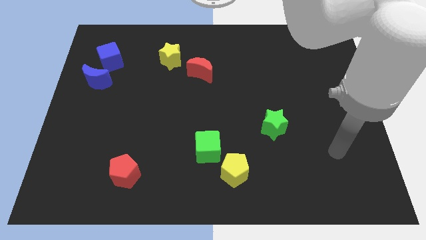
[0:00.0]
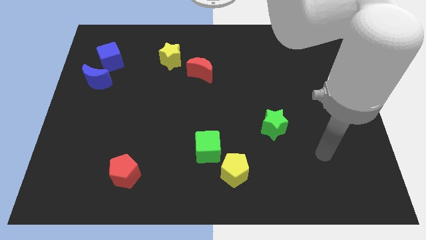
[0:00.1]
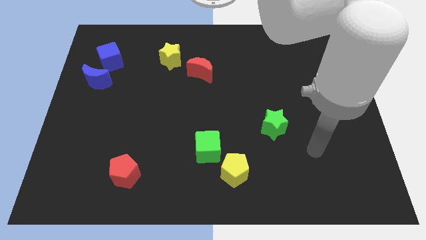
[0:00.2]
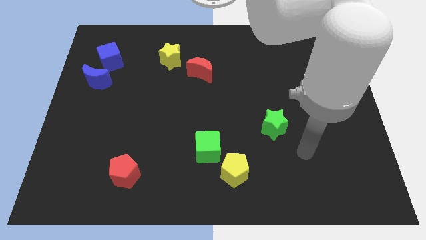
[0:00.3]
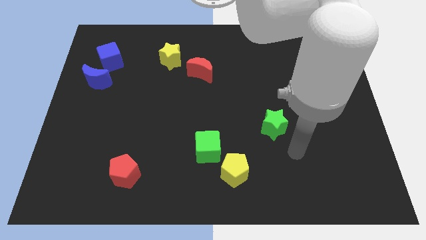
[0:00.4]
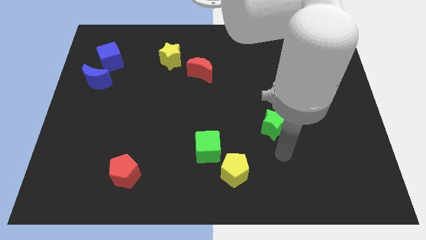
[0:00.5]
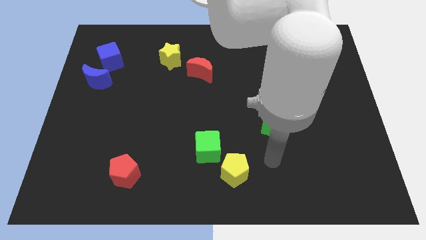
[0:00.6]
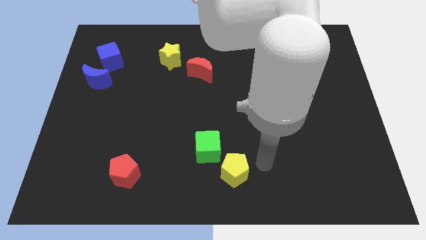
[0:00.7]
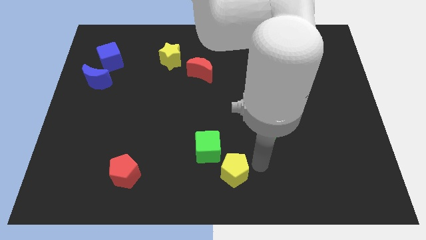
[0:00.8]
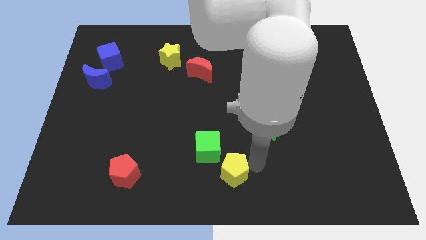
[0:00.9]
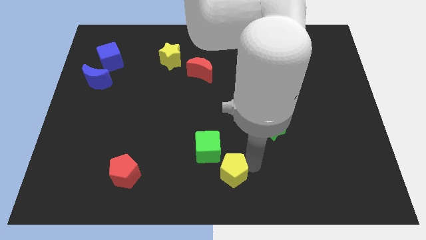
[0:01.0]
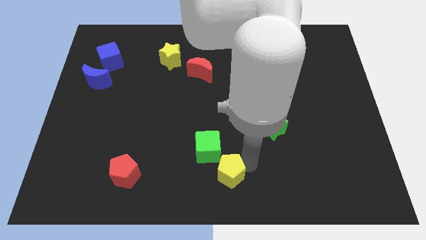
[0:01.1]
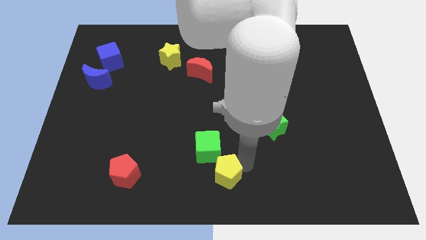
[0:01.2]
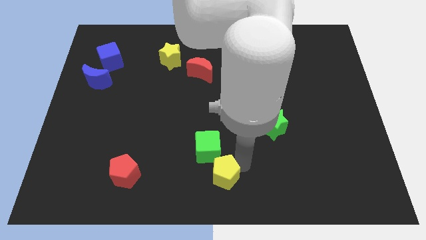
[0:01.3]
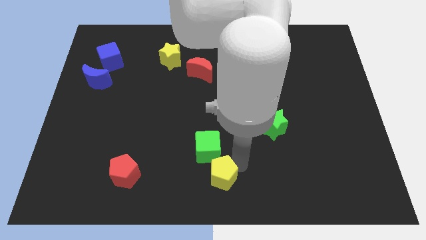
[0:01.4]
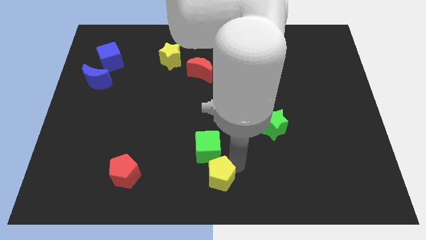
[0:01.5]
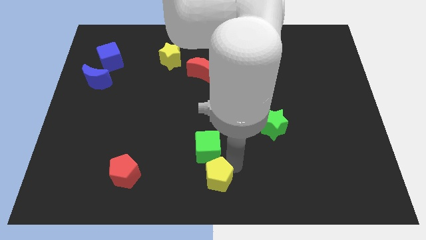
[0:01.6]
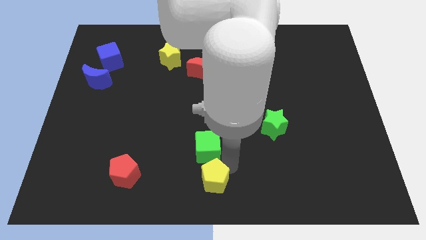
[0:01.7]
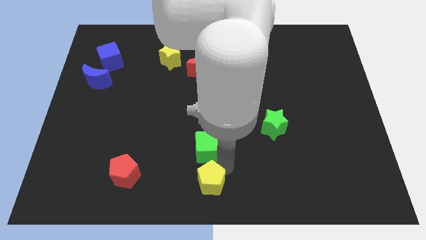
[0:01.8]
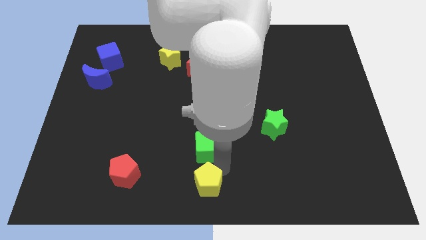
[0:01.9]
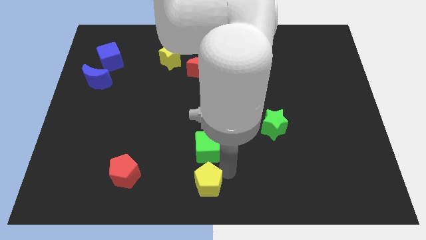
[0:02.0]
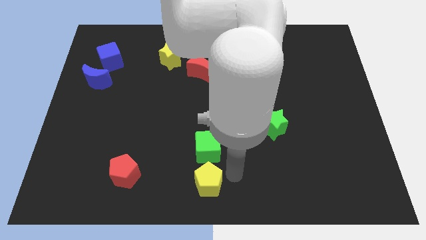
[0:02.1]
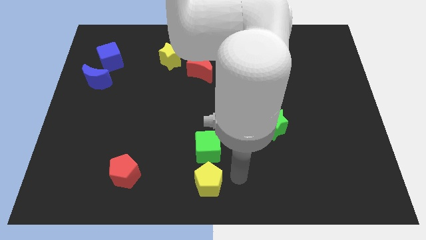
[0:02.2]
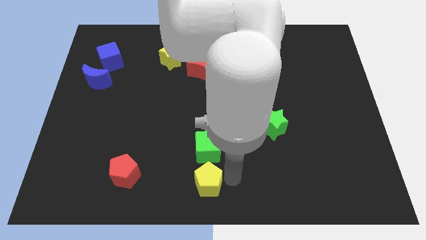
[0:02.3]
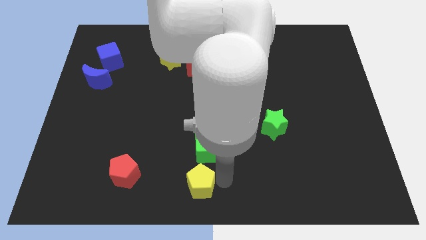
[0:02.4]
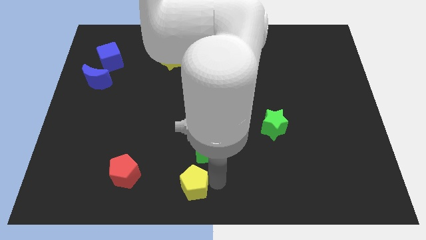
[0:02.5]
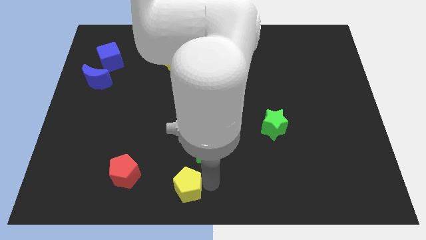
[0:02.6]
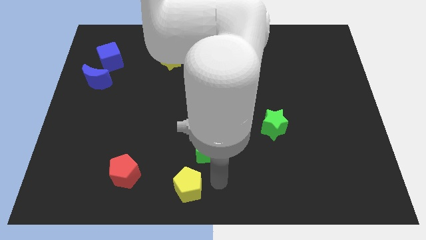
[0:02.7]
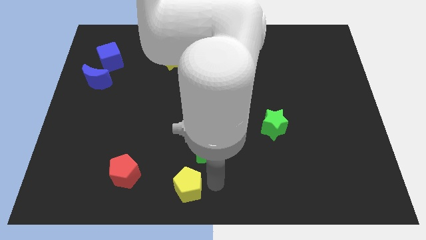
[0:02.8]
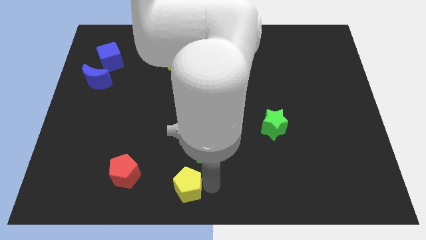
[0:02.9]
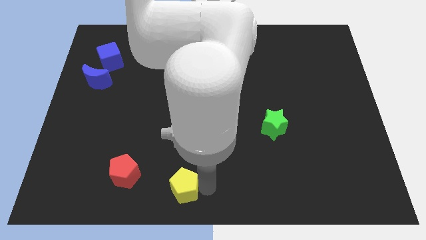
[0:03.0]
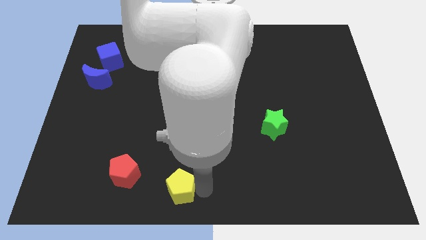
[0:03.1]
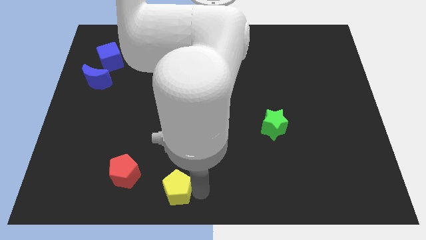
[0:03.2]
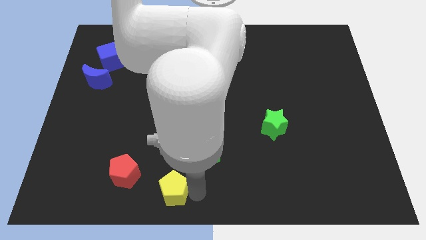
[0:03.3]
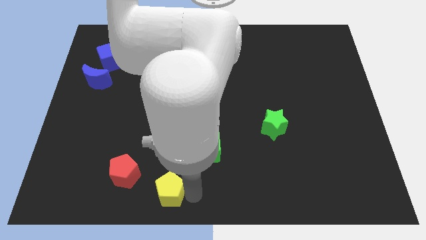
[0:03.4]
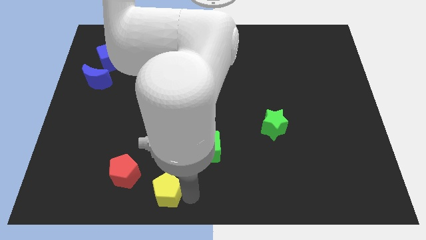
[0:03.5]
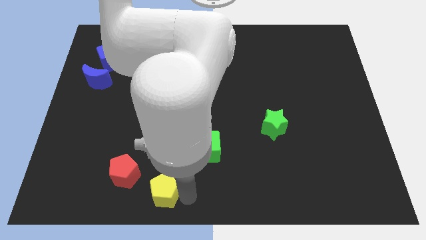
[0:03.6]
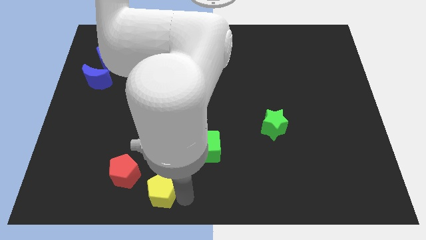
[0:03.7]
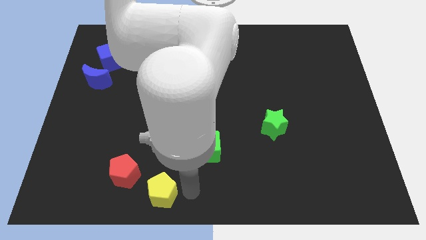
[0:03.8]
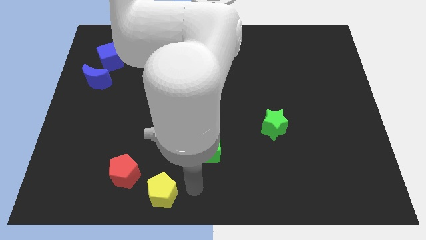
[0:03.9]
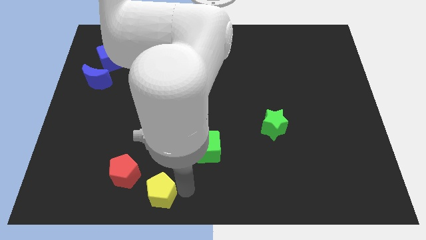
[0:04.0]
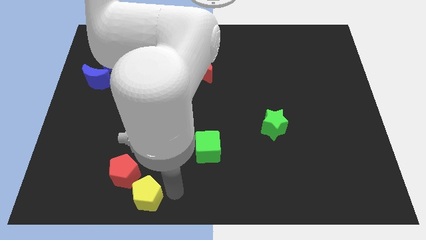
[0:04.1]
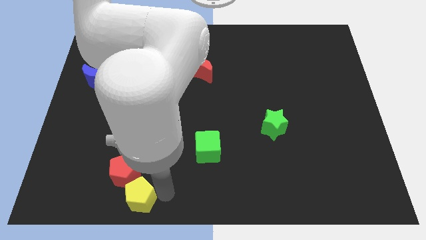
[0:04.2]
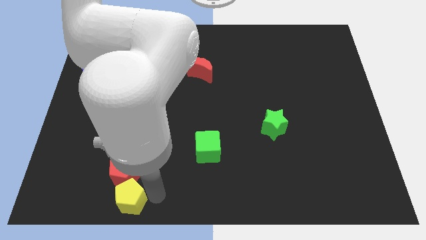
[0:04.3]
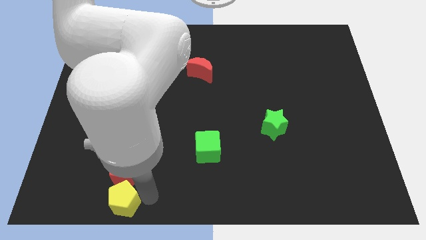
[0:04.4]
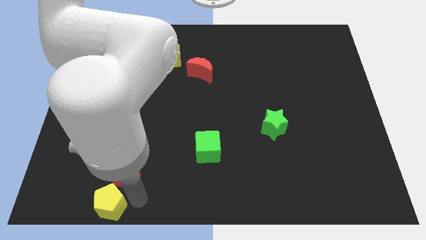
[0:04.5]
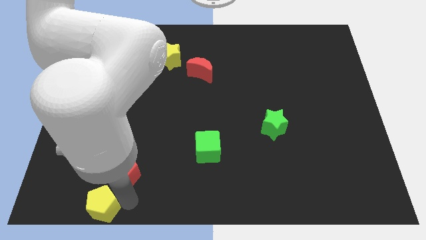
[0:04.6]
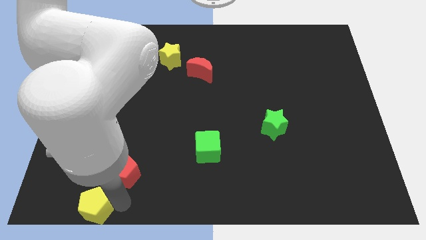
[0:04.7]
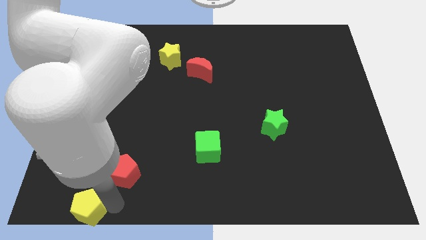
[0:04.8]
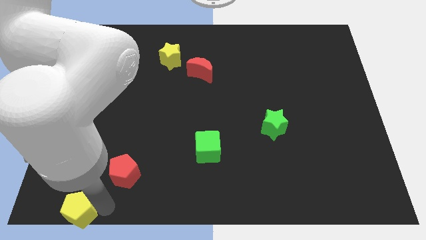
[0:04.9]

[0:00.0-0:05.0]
move the yellow pentagon to the lower left corner

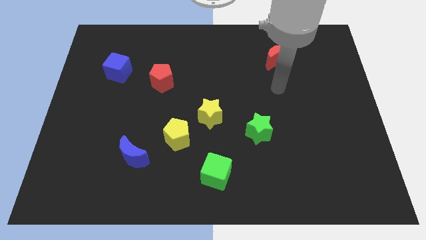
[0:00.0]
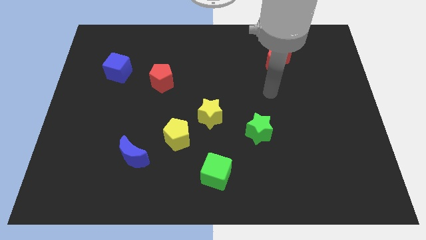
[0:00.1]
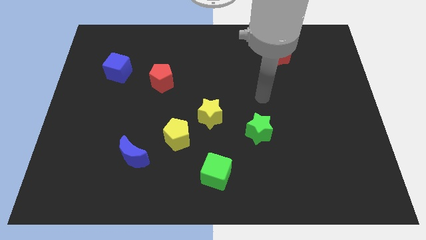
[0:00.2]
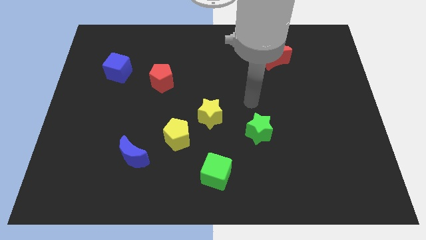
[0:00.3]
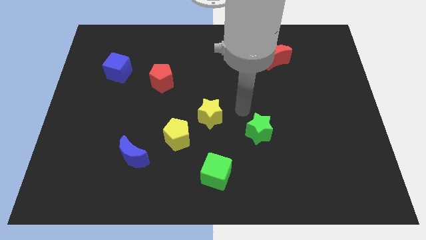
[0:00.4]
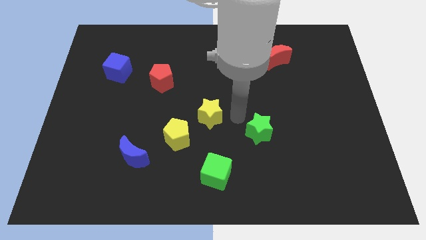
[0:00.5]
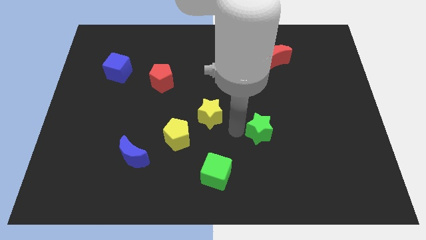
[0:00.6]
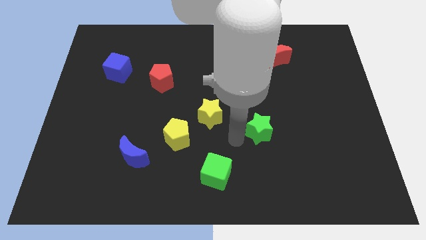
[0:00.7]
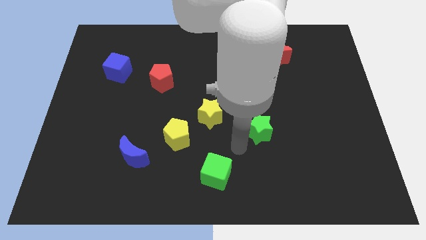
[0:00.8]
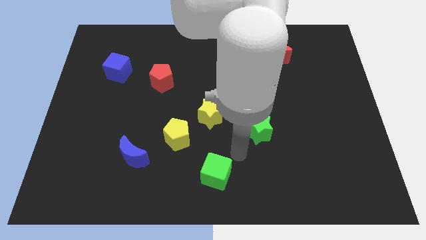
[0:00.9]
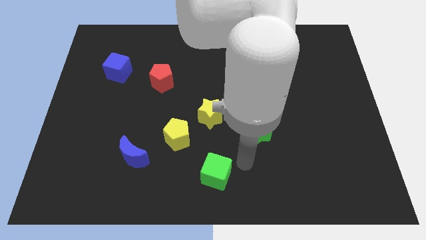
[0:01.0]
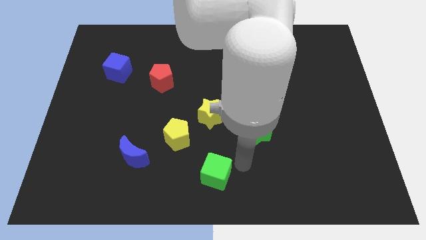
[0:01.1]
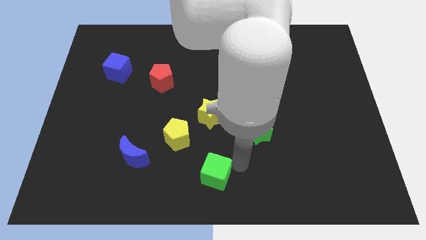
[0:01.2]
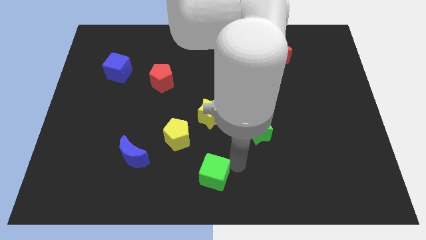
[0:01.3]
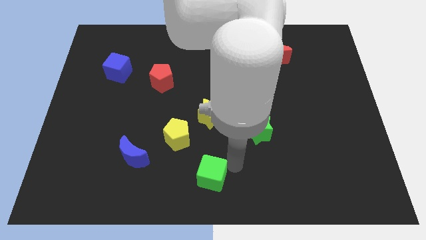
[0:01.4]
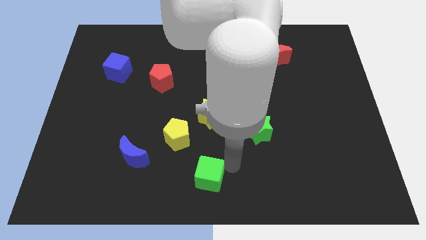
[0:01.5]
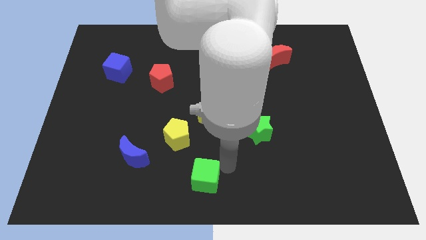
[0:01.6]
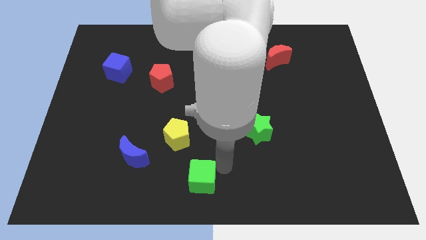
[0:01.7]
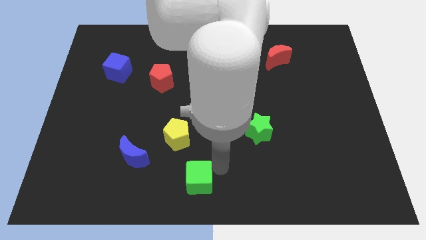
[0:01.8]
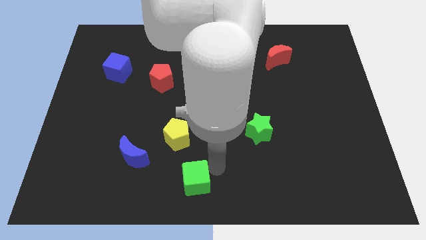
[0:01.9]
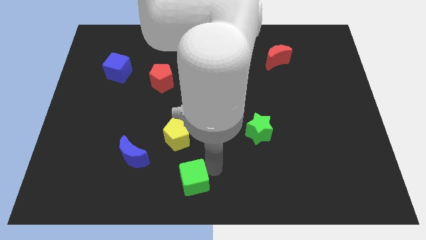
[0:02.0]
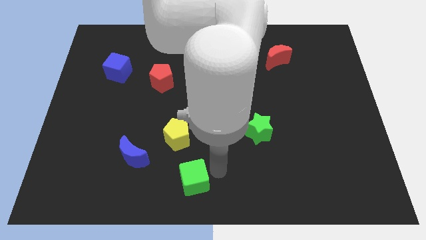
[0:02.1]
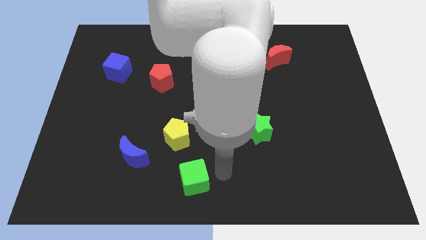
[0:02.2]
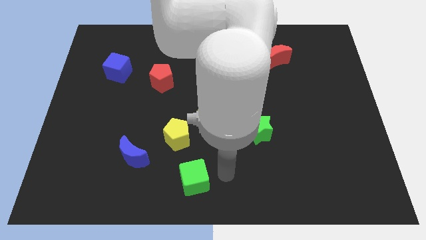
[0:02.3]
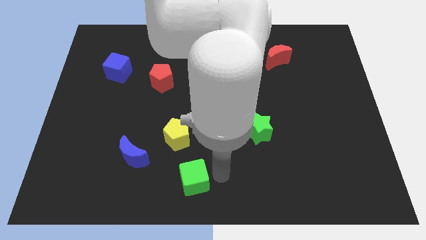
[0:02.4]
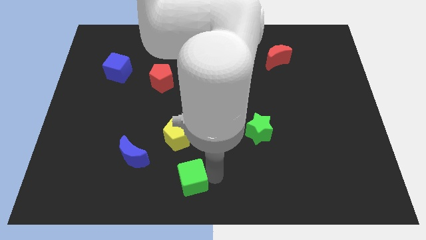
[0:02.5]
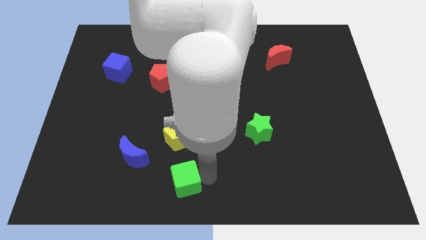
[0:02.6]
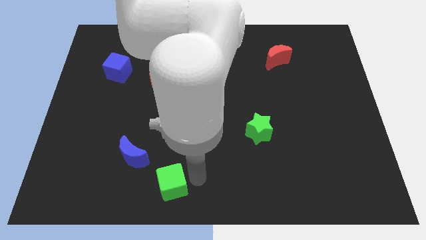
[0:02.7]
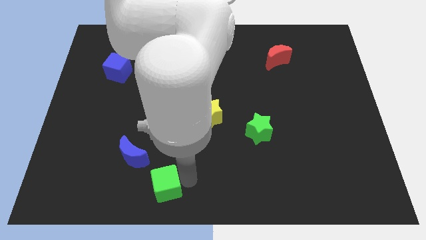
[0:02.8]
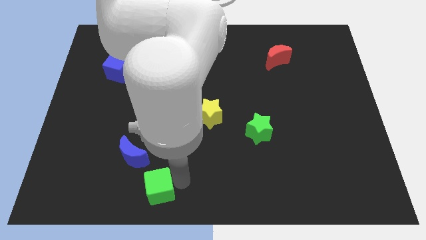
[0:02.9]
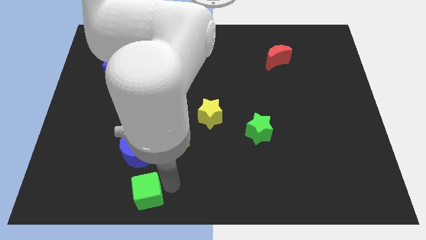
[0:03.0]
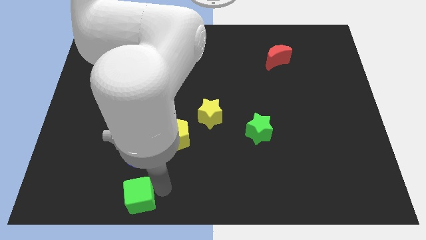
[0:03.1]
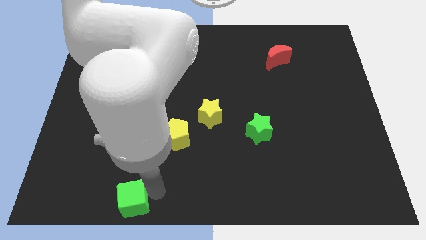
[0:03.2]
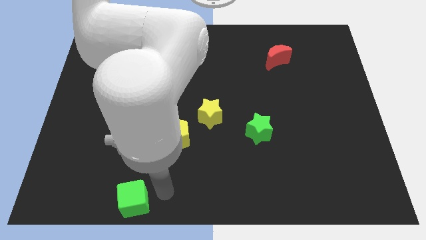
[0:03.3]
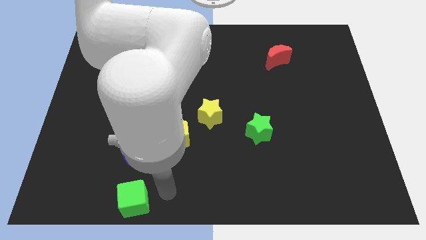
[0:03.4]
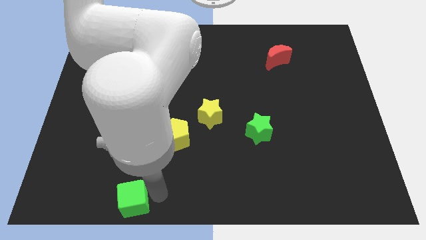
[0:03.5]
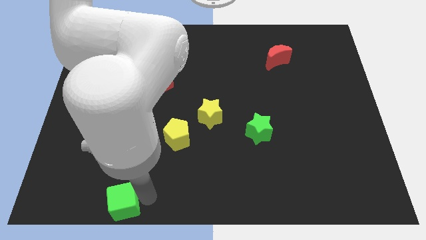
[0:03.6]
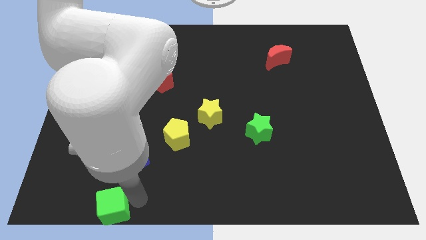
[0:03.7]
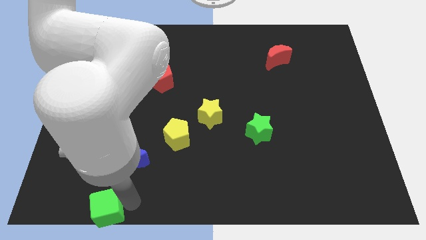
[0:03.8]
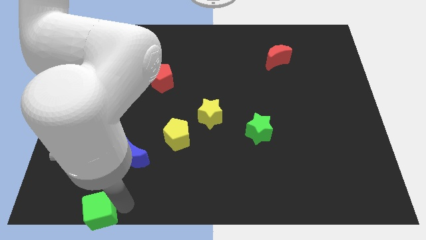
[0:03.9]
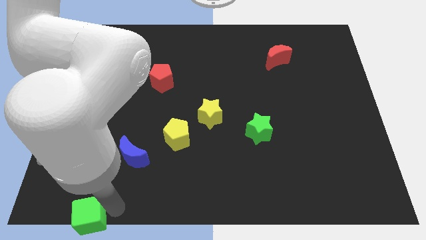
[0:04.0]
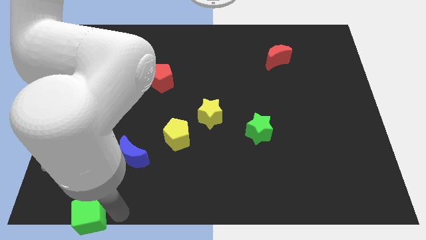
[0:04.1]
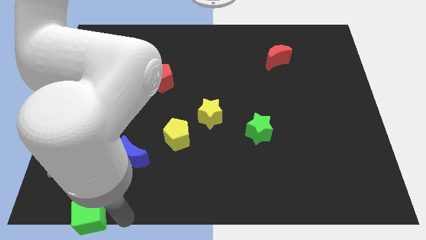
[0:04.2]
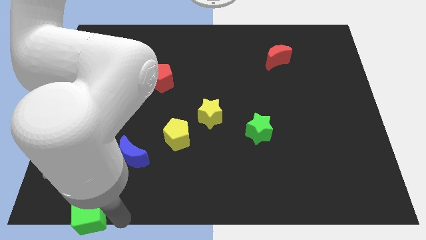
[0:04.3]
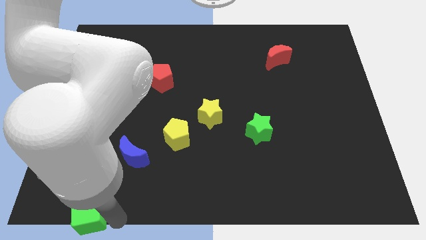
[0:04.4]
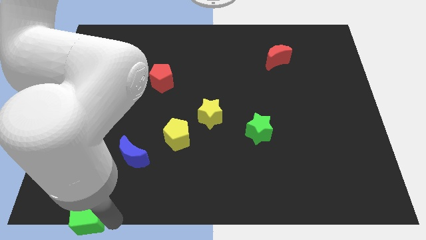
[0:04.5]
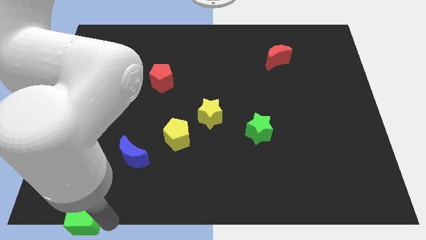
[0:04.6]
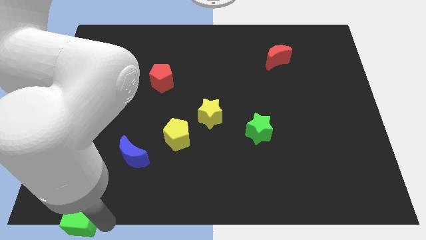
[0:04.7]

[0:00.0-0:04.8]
move the green cube to the bottom left
